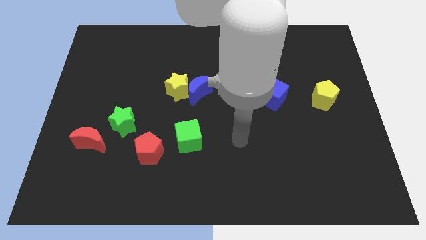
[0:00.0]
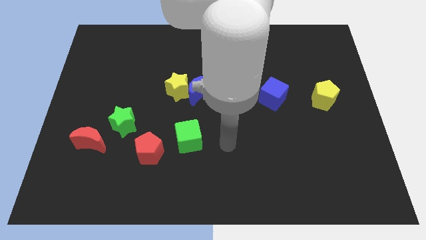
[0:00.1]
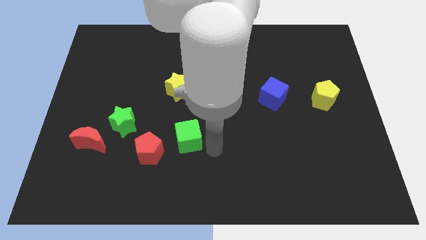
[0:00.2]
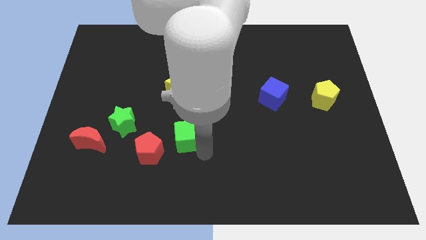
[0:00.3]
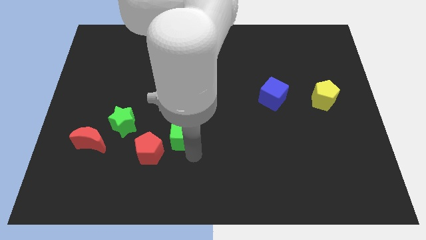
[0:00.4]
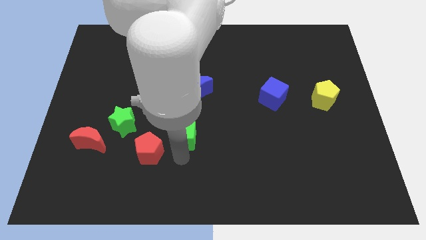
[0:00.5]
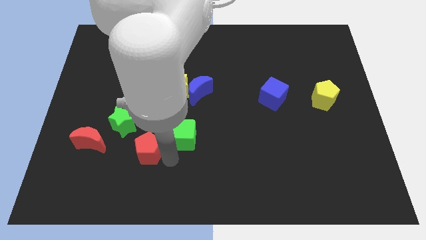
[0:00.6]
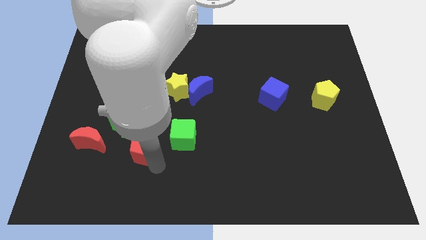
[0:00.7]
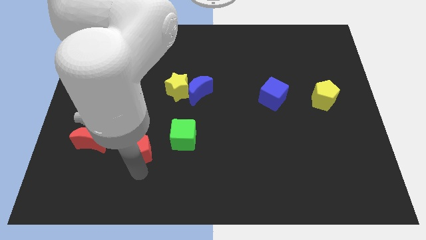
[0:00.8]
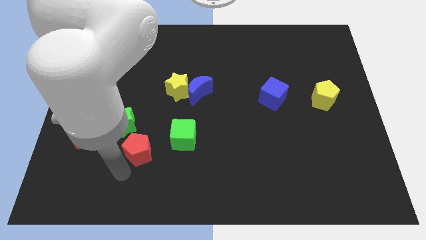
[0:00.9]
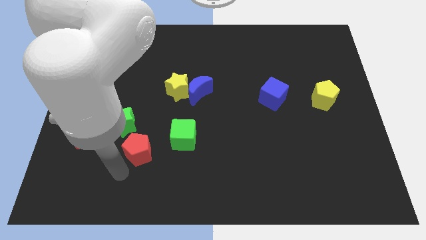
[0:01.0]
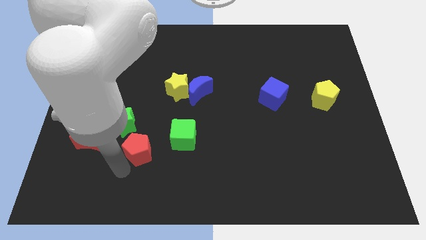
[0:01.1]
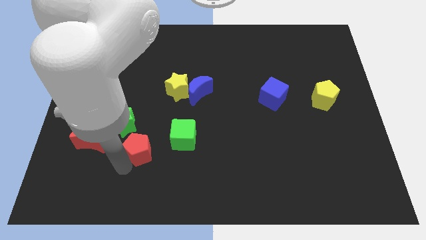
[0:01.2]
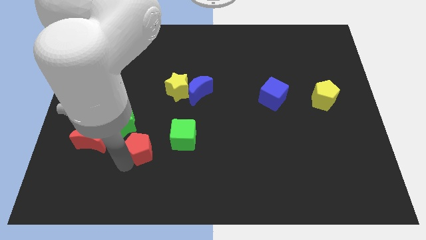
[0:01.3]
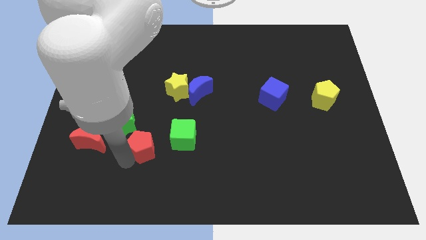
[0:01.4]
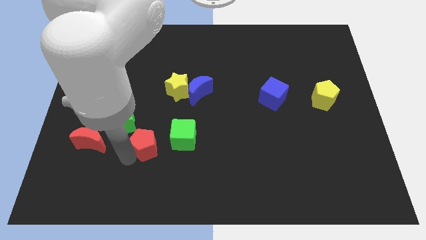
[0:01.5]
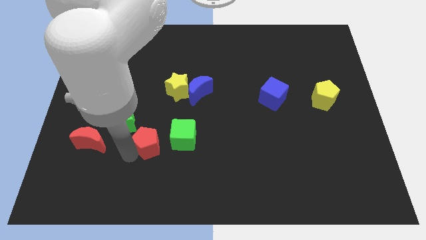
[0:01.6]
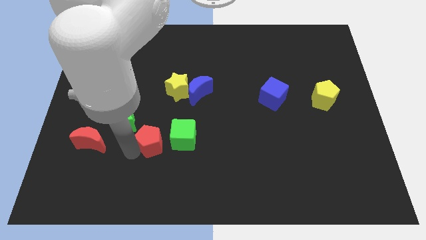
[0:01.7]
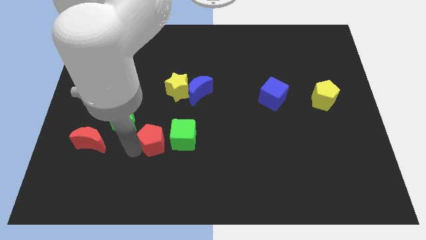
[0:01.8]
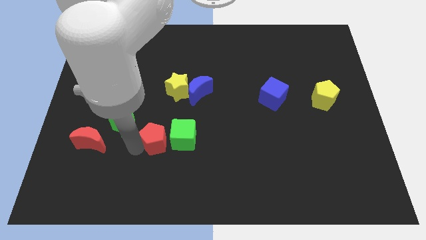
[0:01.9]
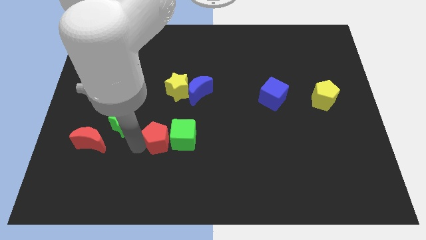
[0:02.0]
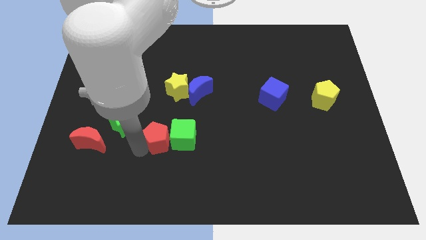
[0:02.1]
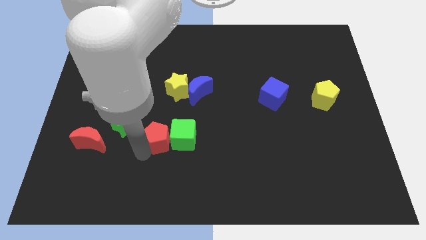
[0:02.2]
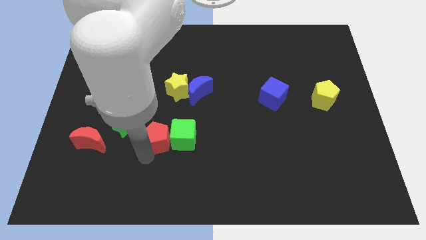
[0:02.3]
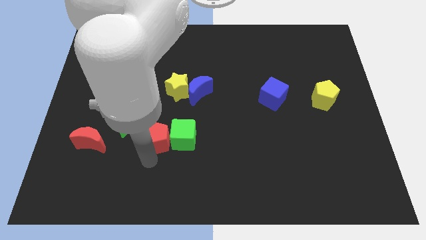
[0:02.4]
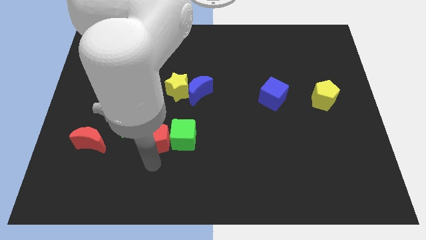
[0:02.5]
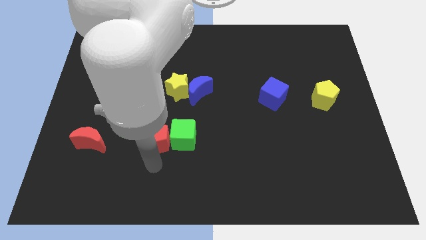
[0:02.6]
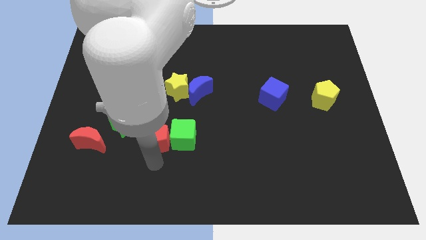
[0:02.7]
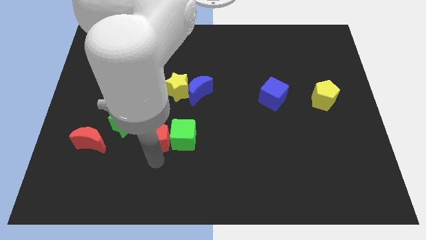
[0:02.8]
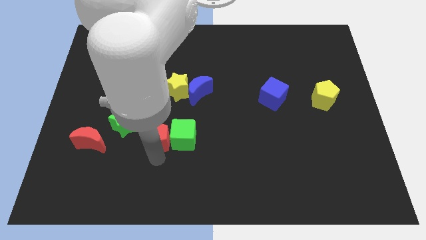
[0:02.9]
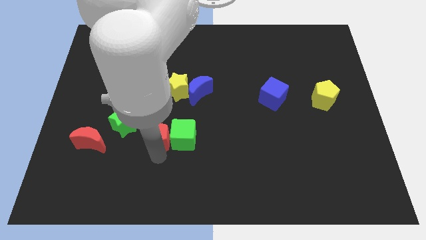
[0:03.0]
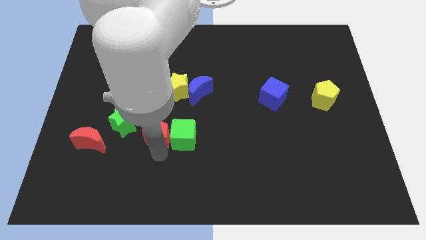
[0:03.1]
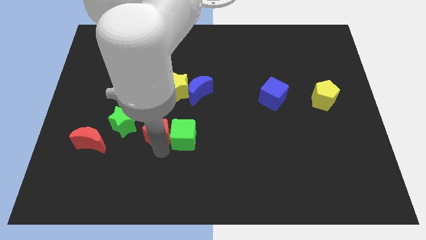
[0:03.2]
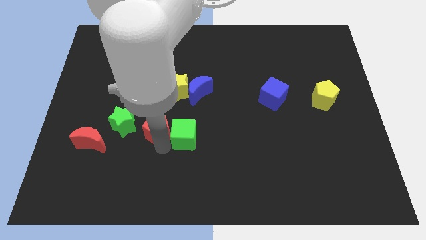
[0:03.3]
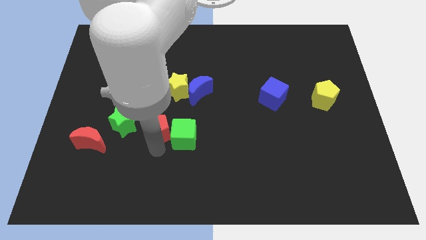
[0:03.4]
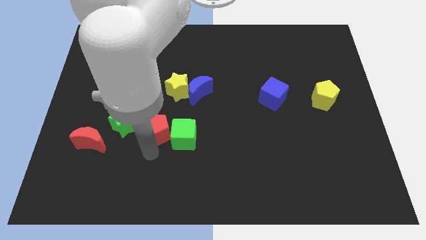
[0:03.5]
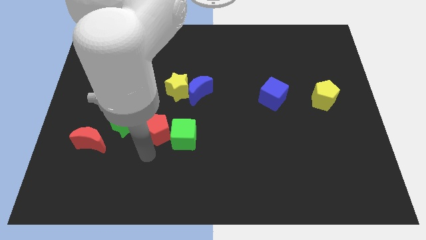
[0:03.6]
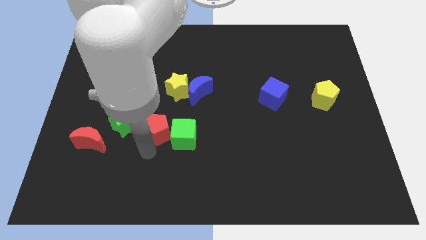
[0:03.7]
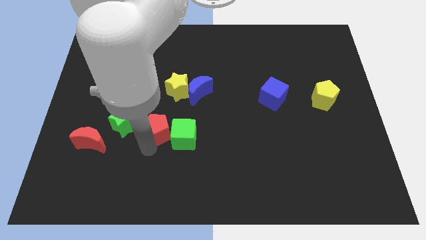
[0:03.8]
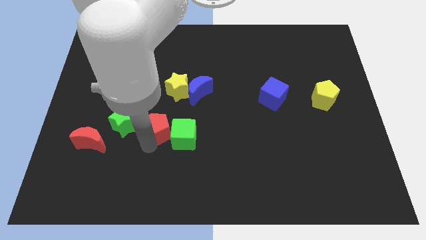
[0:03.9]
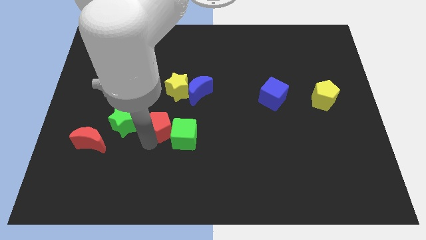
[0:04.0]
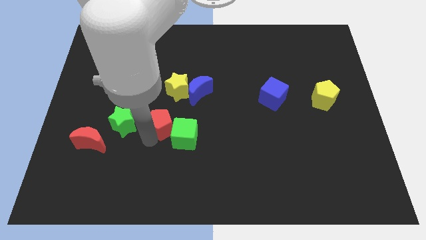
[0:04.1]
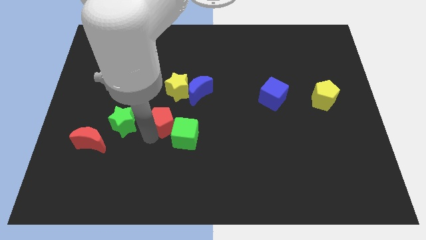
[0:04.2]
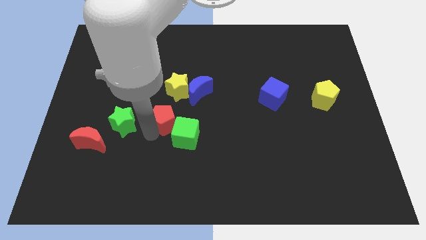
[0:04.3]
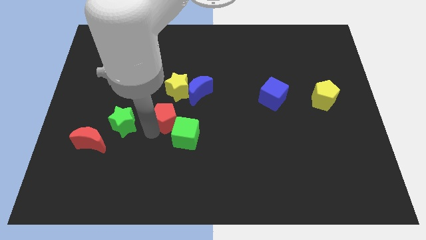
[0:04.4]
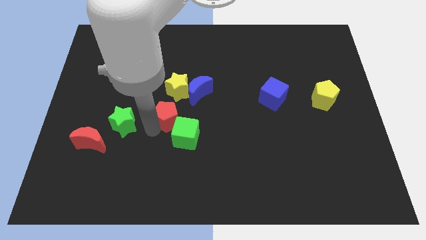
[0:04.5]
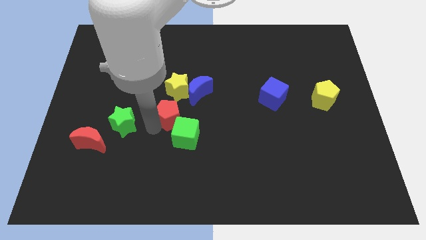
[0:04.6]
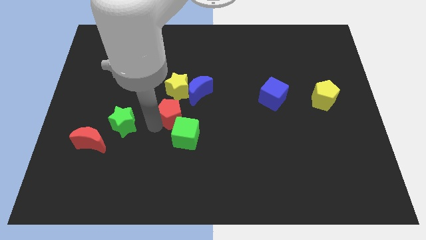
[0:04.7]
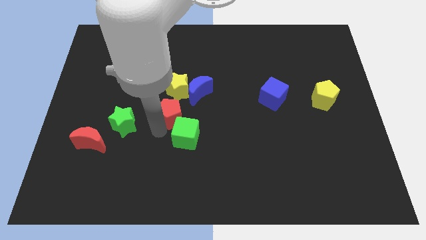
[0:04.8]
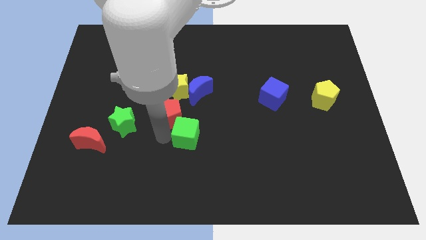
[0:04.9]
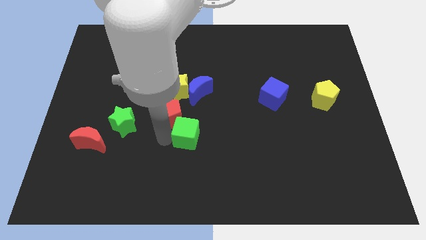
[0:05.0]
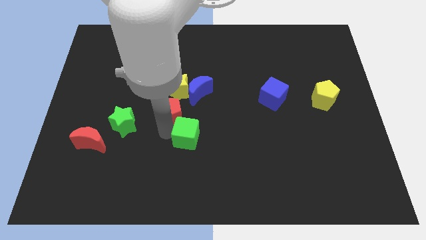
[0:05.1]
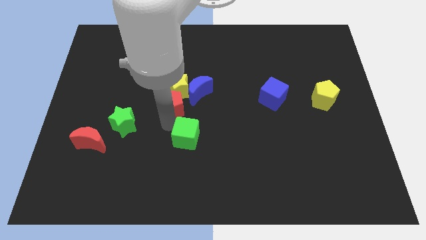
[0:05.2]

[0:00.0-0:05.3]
slide the red pentagon towards the yellow star

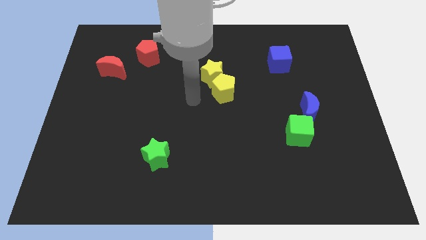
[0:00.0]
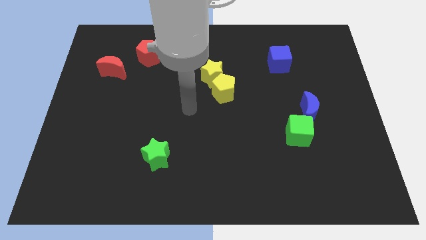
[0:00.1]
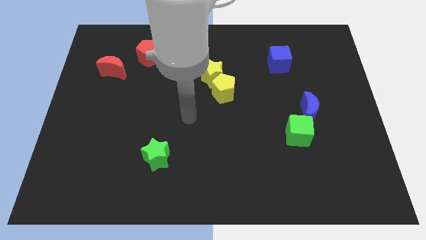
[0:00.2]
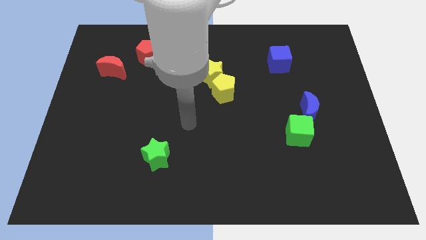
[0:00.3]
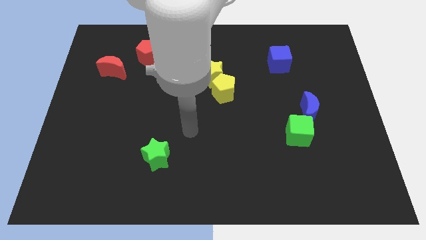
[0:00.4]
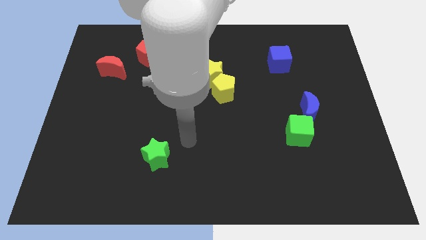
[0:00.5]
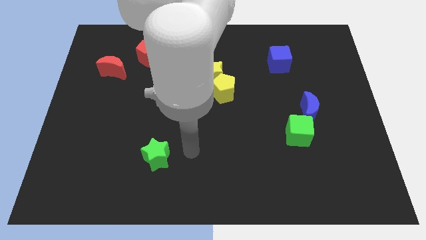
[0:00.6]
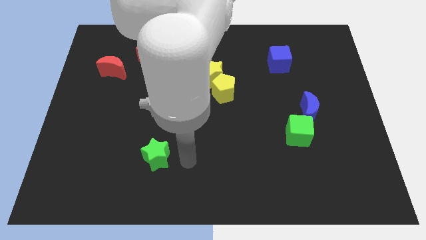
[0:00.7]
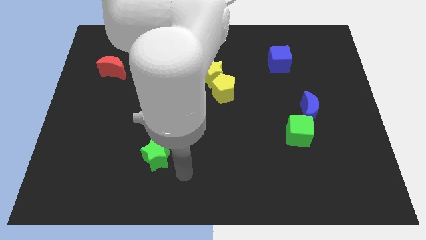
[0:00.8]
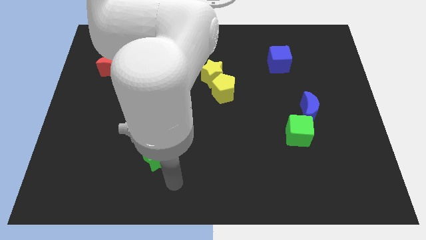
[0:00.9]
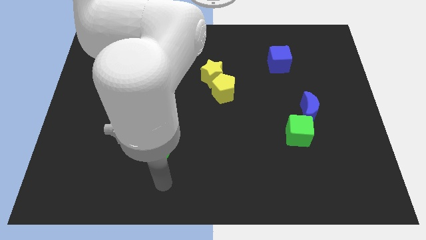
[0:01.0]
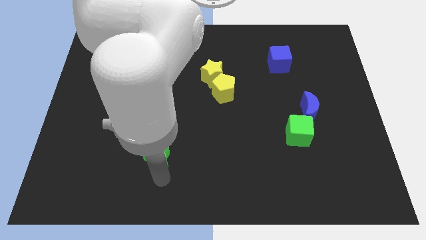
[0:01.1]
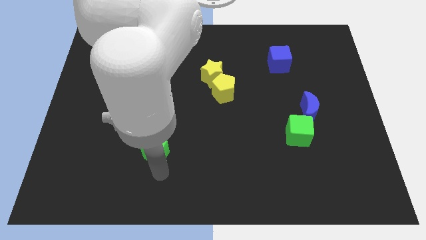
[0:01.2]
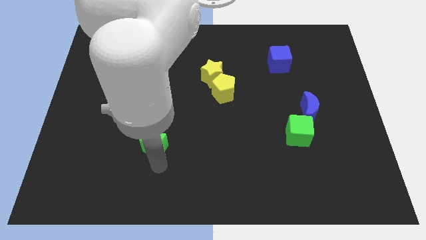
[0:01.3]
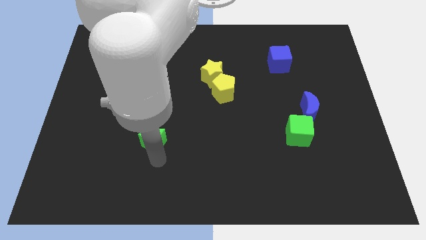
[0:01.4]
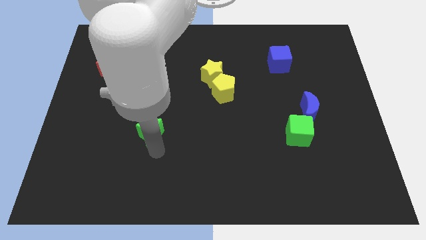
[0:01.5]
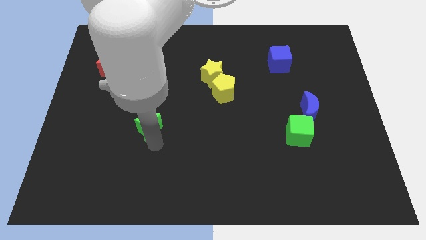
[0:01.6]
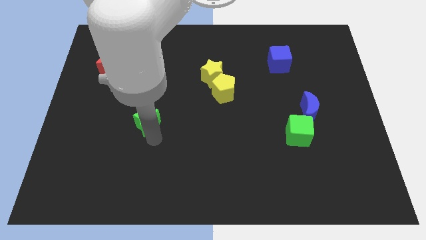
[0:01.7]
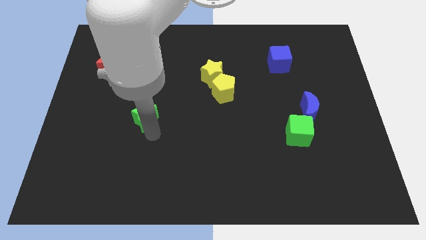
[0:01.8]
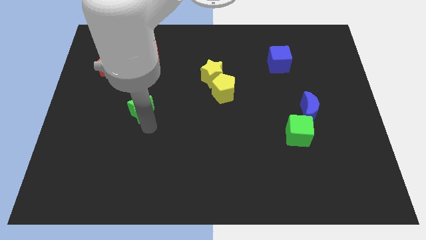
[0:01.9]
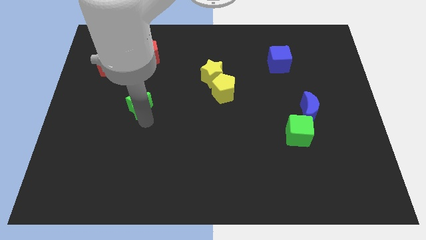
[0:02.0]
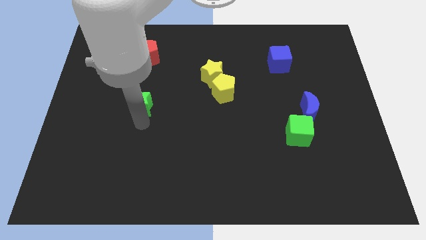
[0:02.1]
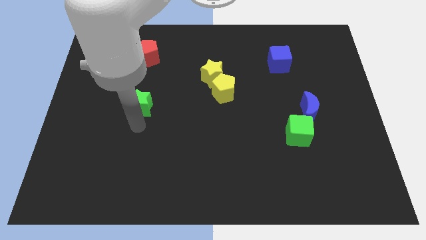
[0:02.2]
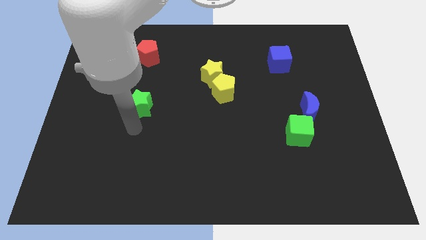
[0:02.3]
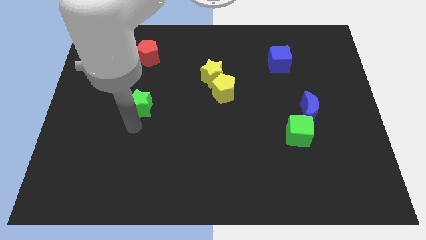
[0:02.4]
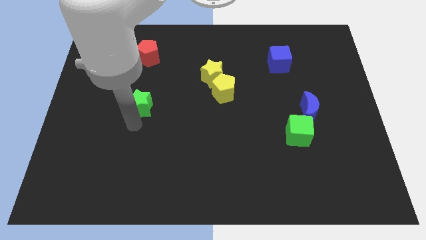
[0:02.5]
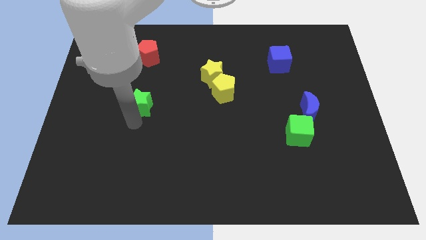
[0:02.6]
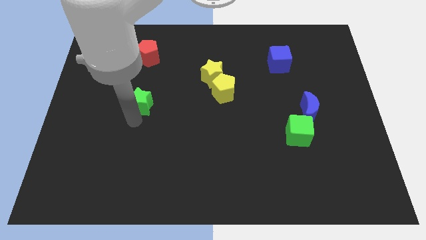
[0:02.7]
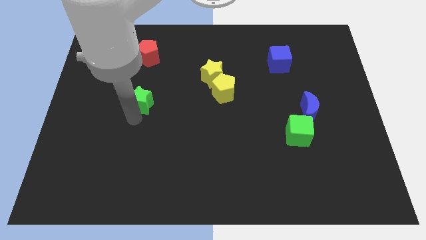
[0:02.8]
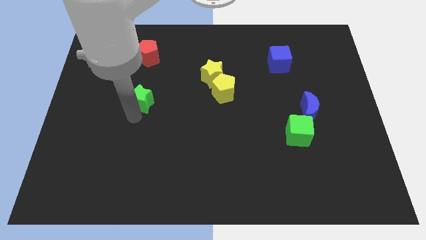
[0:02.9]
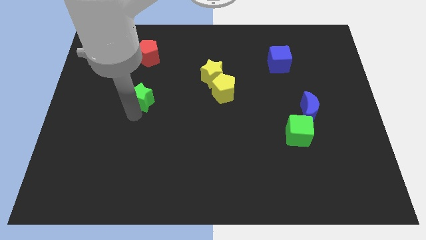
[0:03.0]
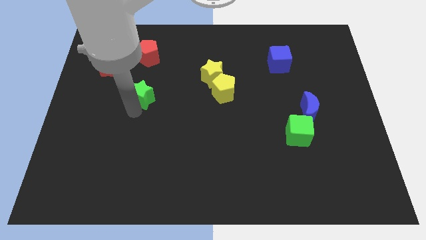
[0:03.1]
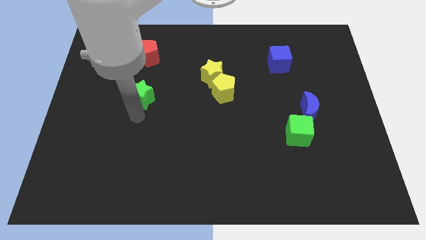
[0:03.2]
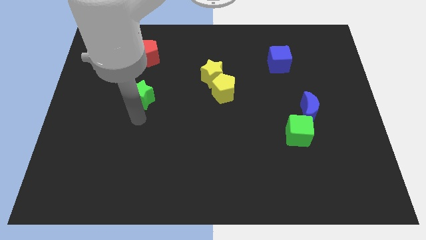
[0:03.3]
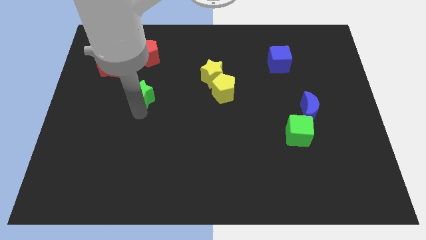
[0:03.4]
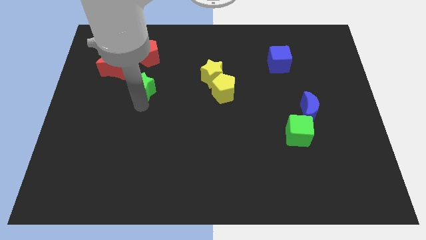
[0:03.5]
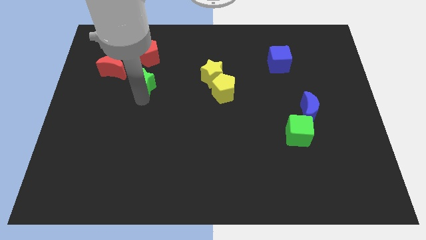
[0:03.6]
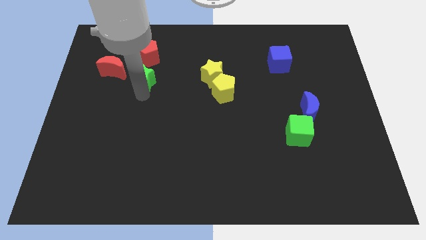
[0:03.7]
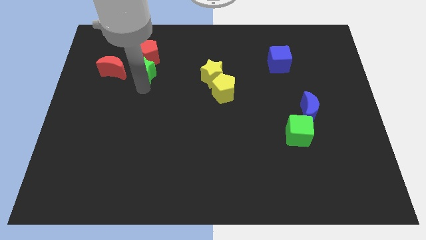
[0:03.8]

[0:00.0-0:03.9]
slide the green star to the red pentagon
